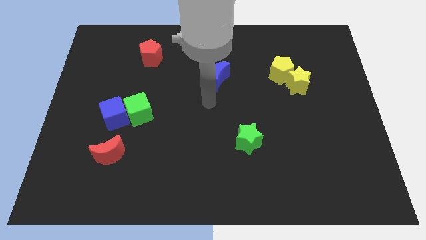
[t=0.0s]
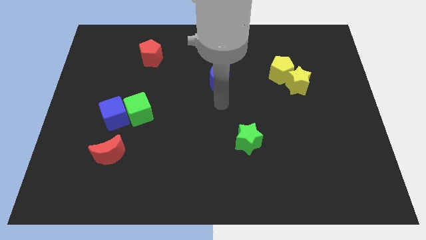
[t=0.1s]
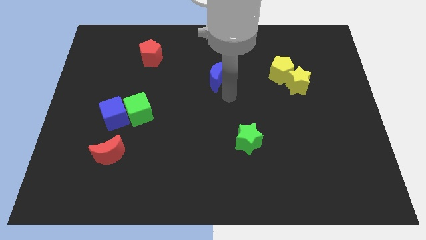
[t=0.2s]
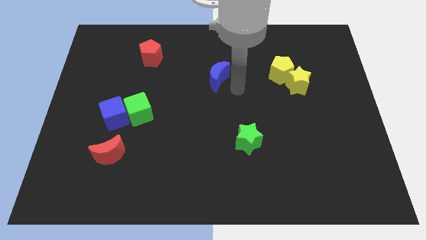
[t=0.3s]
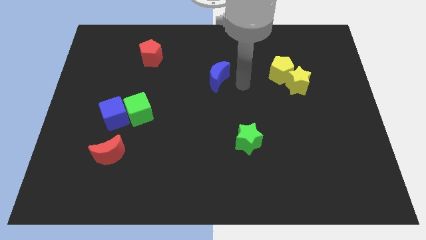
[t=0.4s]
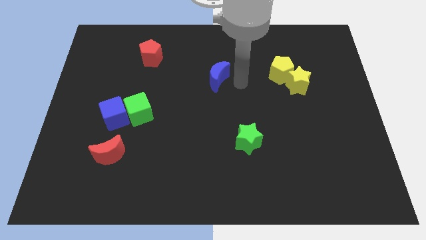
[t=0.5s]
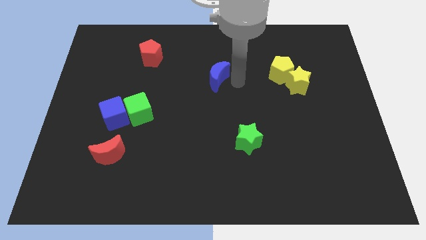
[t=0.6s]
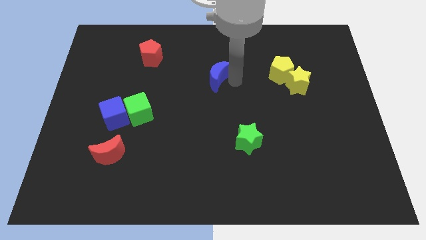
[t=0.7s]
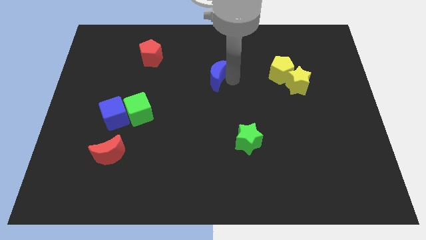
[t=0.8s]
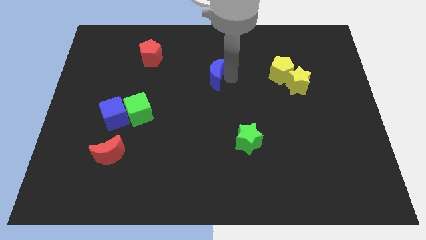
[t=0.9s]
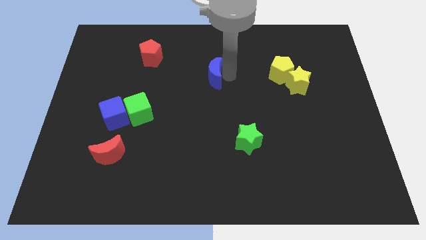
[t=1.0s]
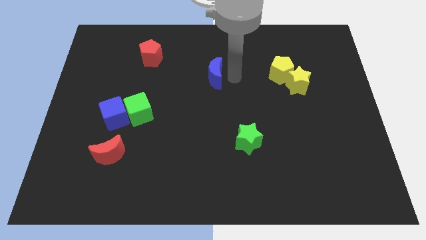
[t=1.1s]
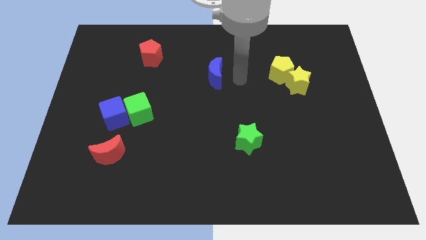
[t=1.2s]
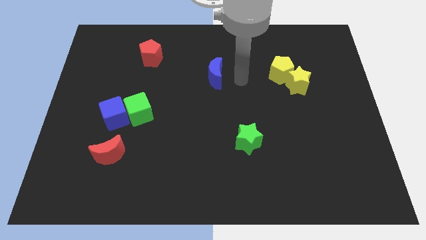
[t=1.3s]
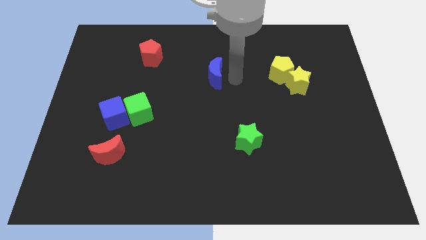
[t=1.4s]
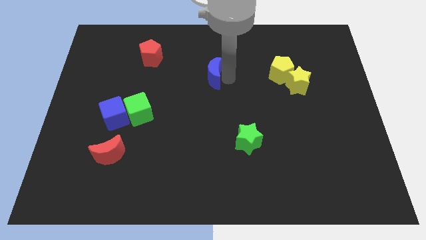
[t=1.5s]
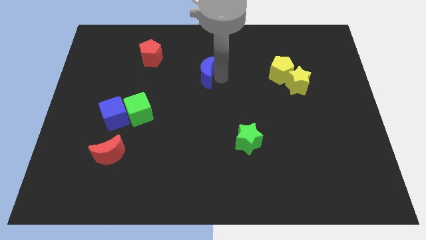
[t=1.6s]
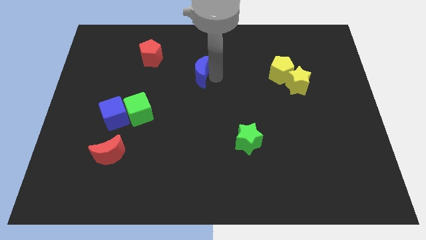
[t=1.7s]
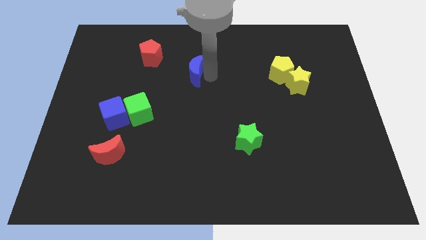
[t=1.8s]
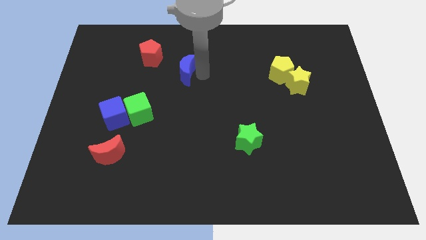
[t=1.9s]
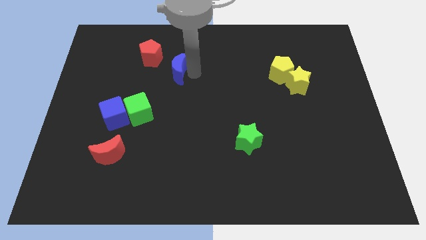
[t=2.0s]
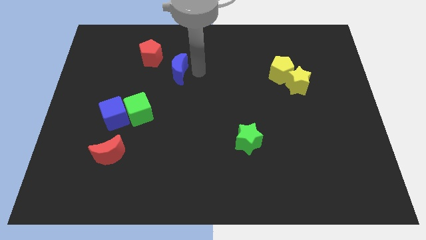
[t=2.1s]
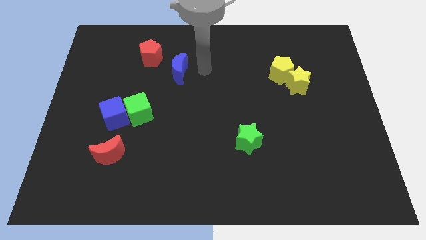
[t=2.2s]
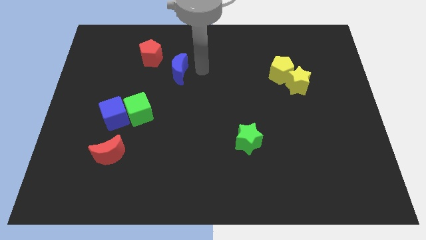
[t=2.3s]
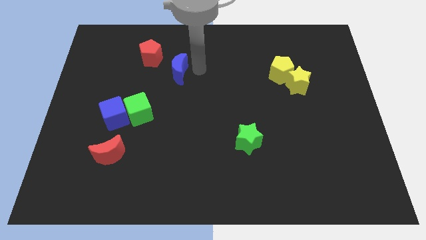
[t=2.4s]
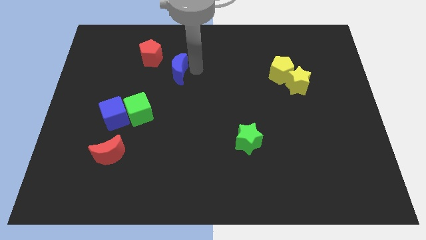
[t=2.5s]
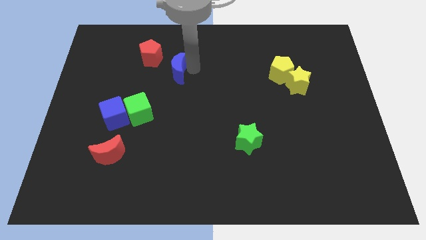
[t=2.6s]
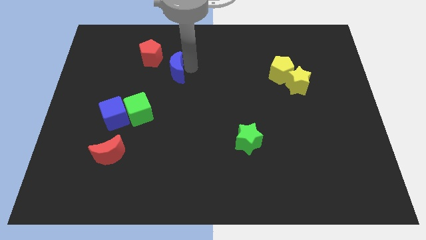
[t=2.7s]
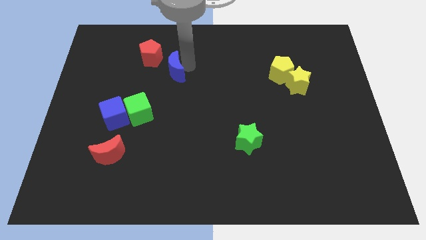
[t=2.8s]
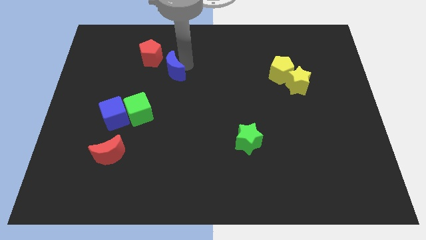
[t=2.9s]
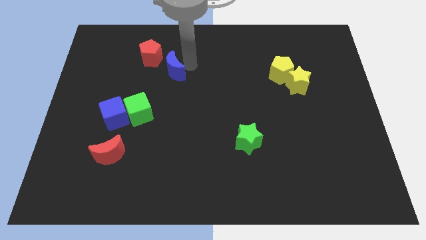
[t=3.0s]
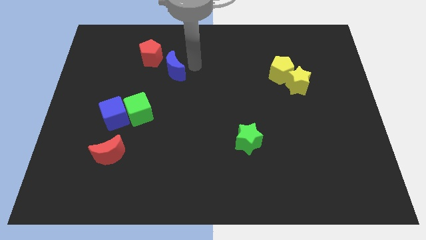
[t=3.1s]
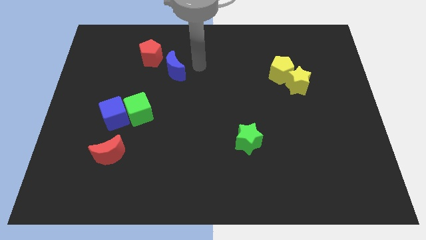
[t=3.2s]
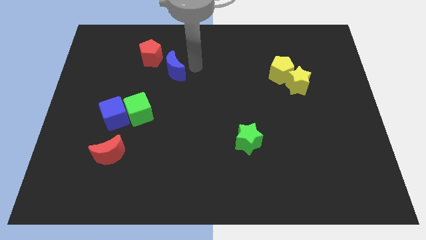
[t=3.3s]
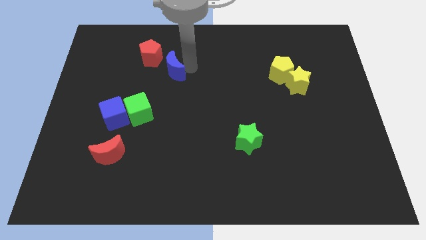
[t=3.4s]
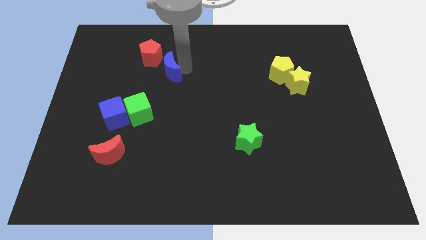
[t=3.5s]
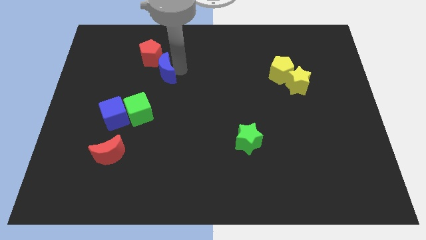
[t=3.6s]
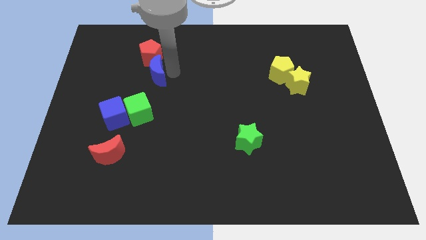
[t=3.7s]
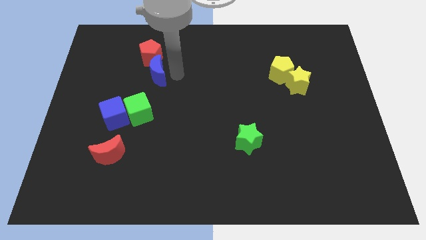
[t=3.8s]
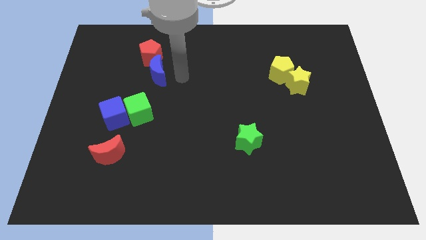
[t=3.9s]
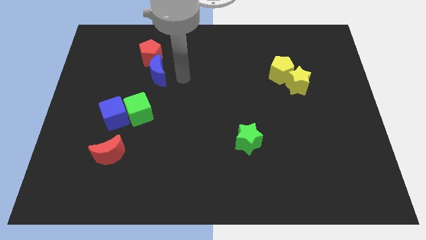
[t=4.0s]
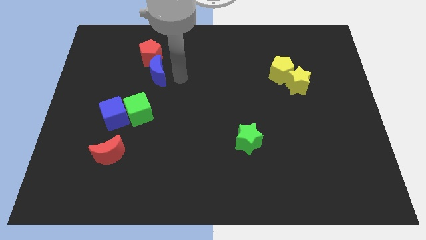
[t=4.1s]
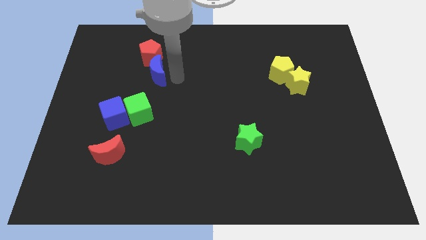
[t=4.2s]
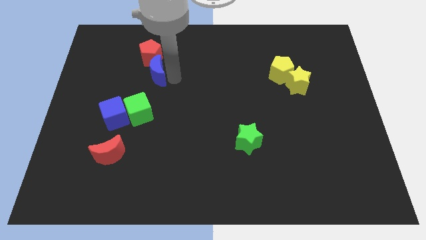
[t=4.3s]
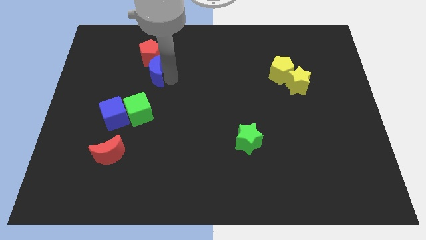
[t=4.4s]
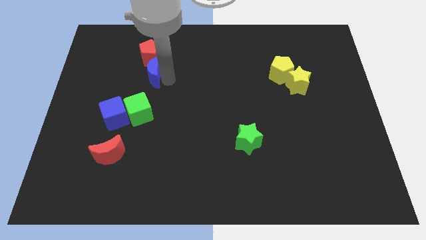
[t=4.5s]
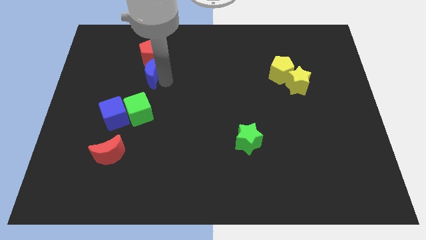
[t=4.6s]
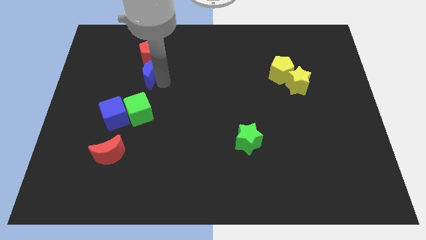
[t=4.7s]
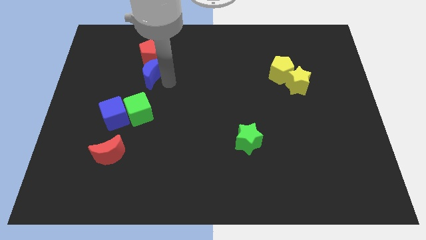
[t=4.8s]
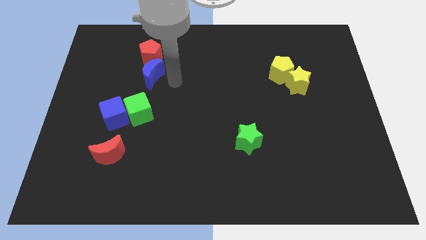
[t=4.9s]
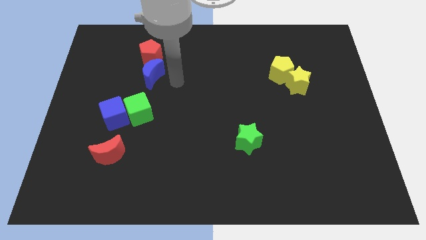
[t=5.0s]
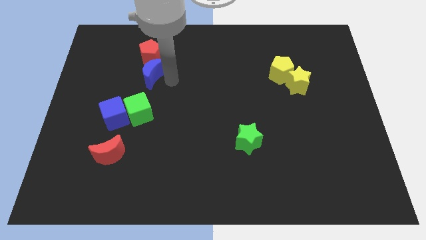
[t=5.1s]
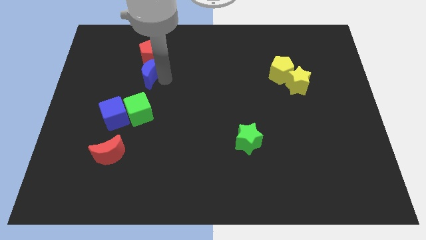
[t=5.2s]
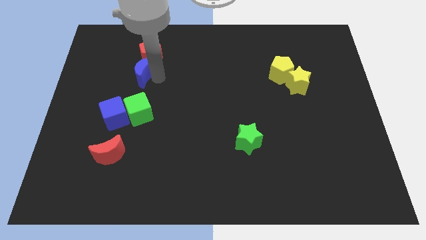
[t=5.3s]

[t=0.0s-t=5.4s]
move the blue moon to the bottom left of the red pentagon

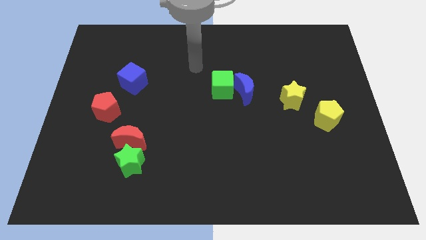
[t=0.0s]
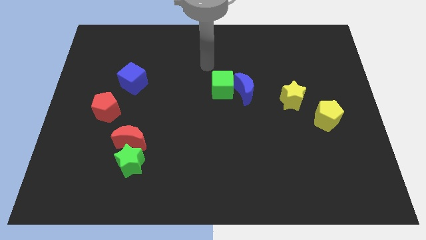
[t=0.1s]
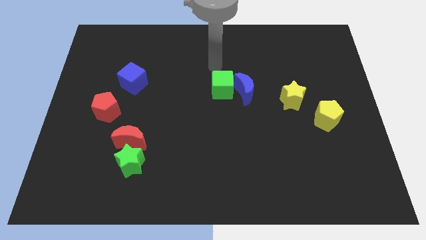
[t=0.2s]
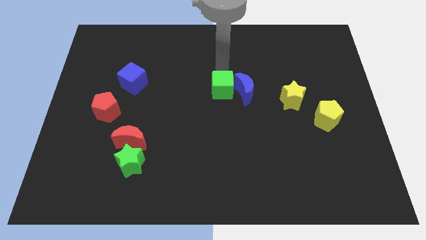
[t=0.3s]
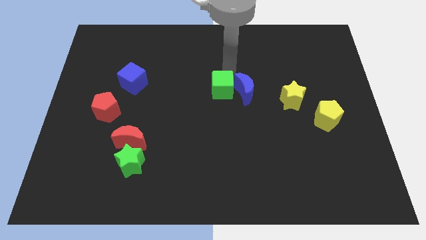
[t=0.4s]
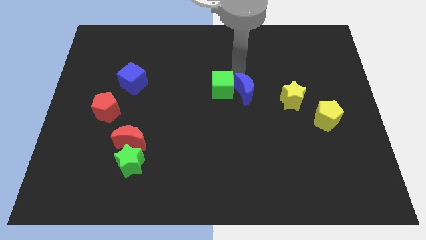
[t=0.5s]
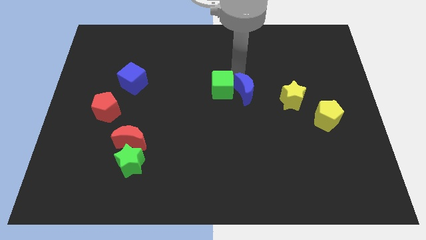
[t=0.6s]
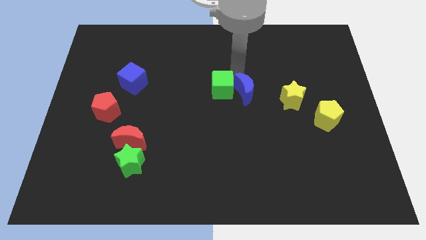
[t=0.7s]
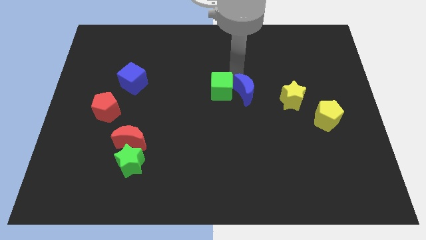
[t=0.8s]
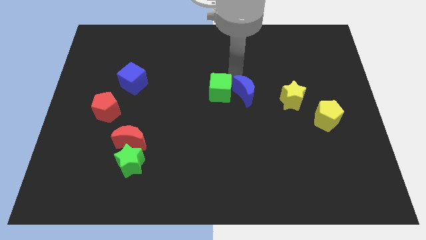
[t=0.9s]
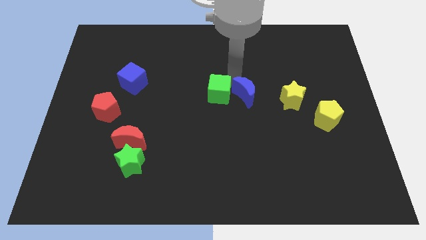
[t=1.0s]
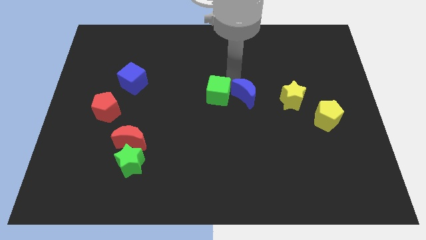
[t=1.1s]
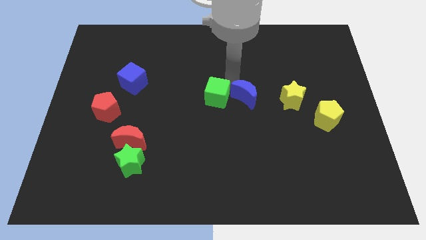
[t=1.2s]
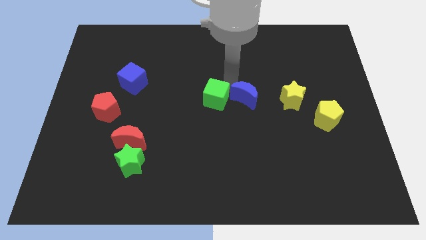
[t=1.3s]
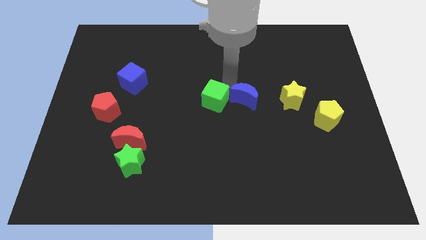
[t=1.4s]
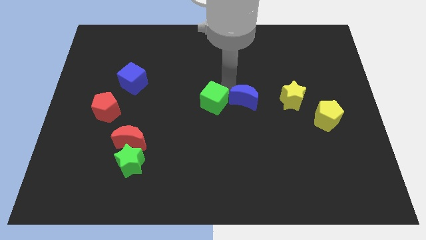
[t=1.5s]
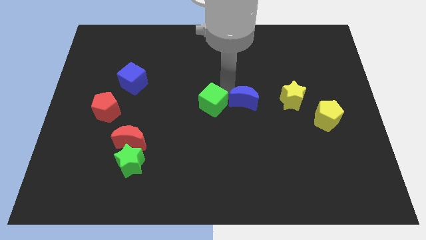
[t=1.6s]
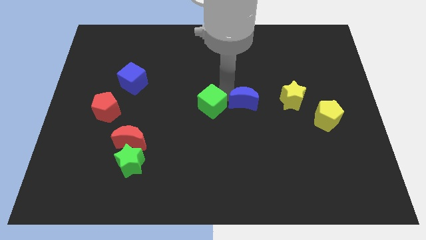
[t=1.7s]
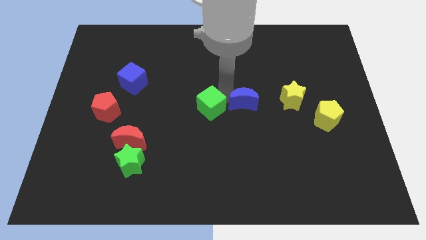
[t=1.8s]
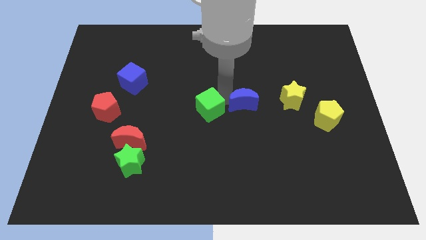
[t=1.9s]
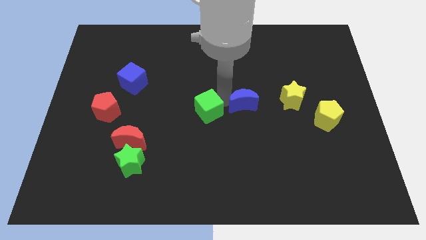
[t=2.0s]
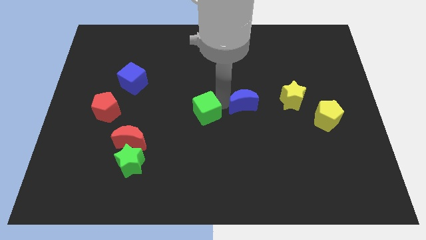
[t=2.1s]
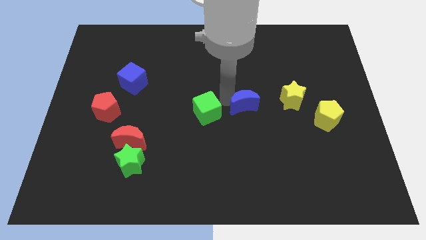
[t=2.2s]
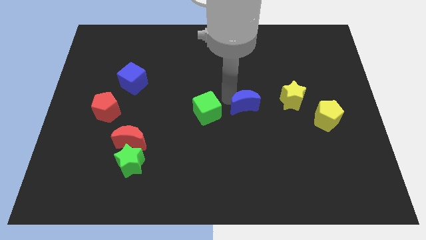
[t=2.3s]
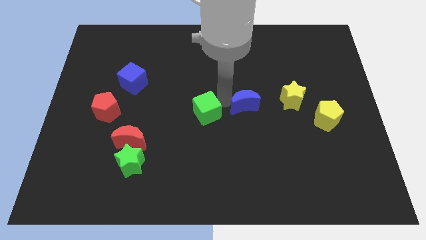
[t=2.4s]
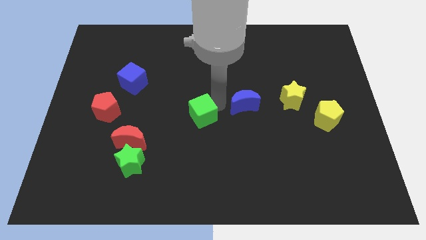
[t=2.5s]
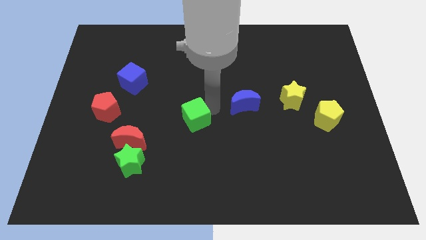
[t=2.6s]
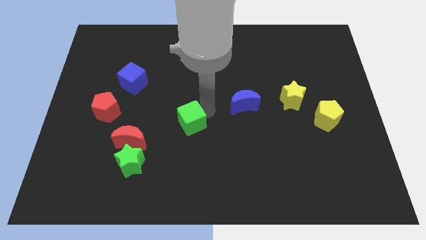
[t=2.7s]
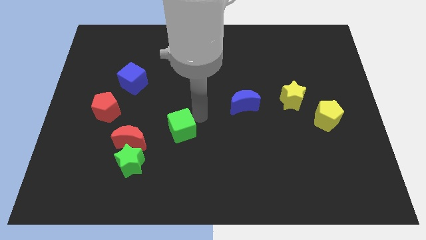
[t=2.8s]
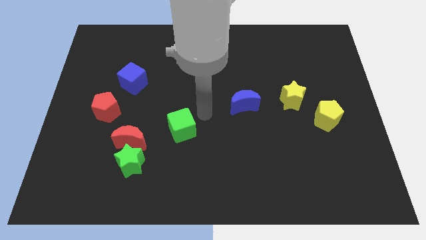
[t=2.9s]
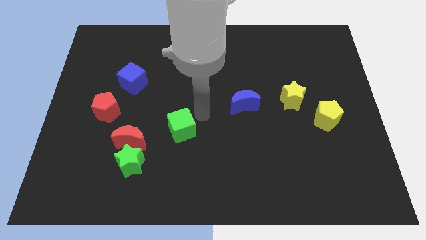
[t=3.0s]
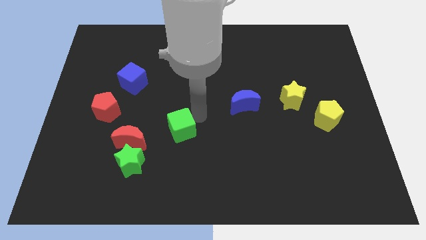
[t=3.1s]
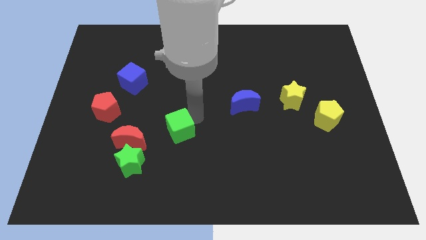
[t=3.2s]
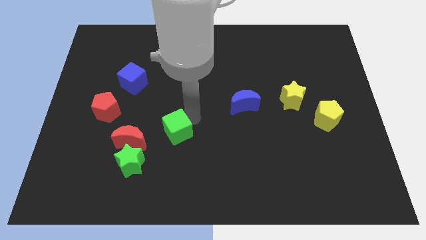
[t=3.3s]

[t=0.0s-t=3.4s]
push the green cube diagonally up and to the right of the green star
